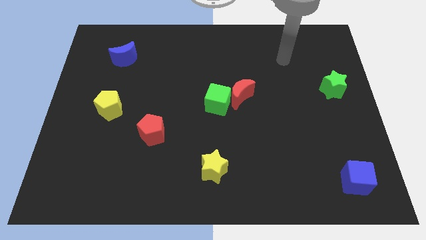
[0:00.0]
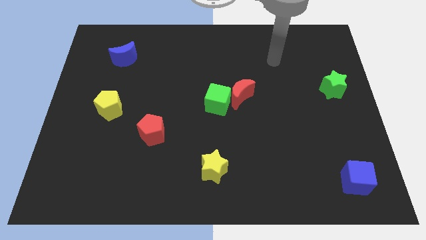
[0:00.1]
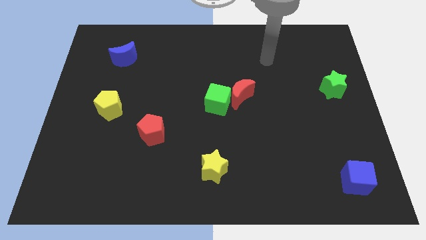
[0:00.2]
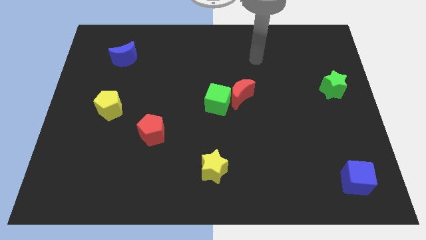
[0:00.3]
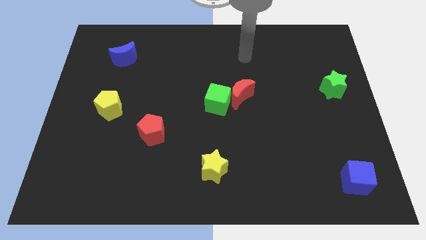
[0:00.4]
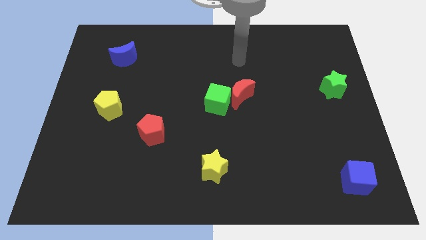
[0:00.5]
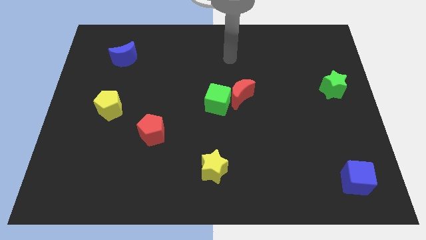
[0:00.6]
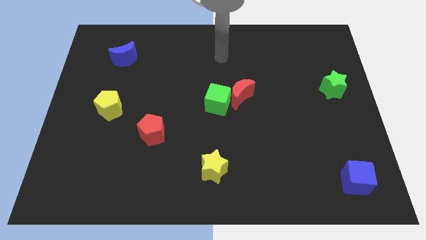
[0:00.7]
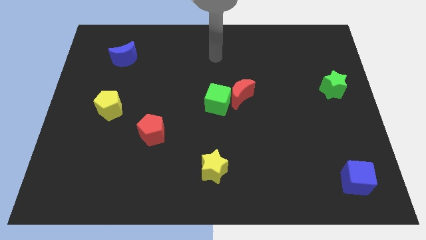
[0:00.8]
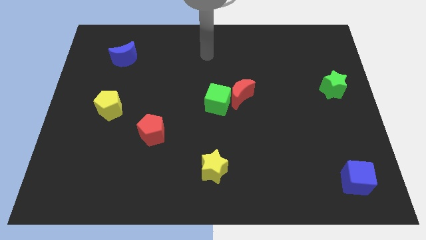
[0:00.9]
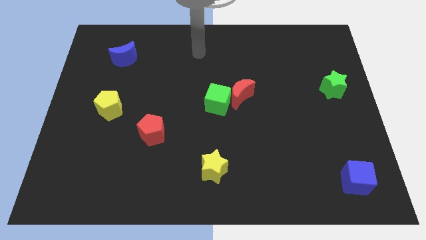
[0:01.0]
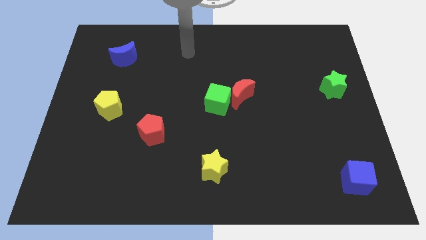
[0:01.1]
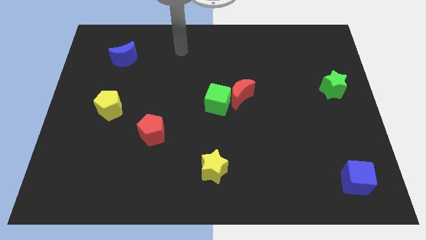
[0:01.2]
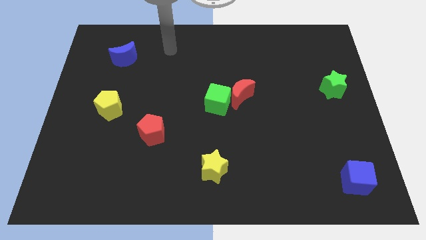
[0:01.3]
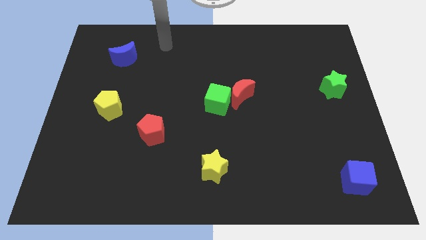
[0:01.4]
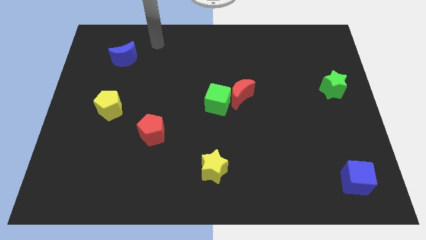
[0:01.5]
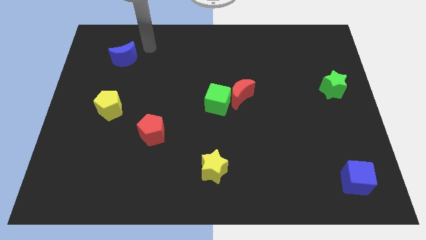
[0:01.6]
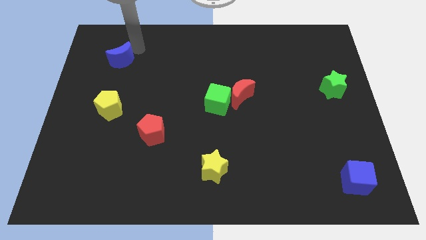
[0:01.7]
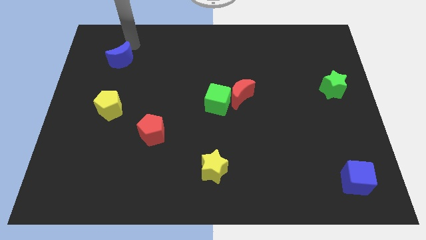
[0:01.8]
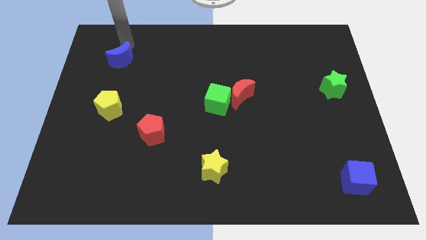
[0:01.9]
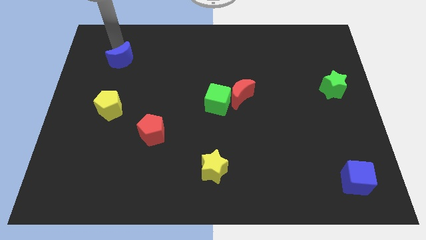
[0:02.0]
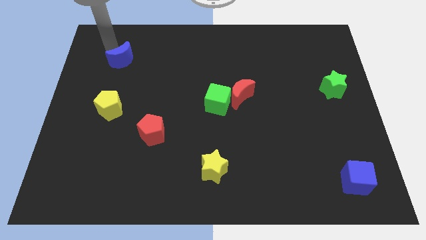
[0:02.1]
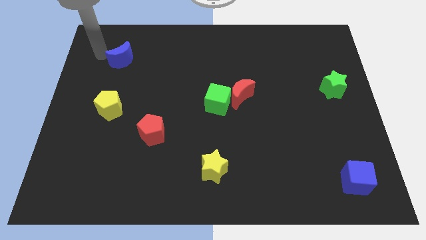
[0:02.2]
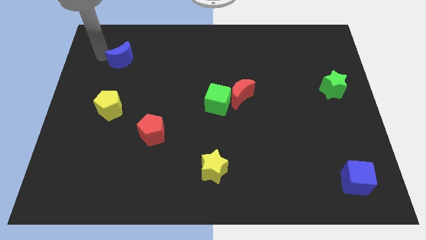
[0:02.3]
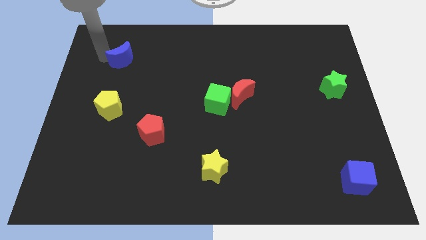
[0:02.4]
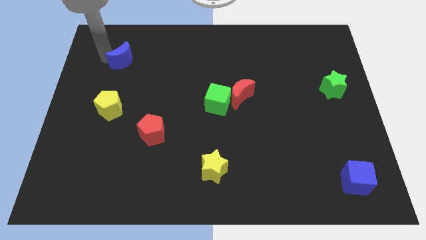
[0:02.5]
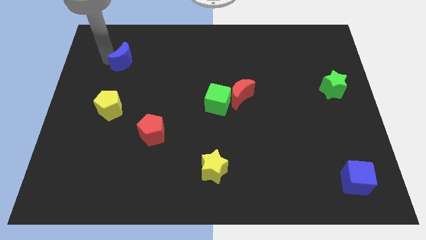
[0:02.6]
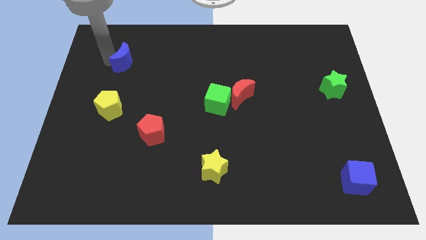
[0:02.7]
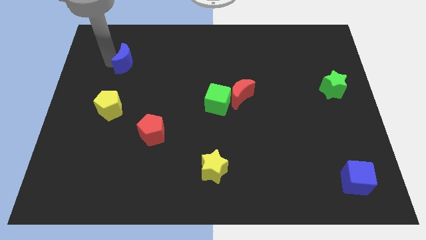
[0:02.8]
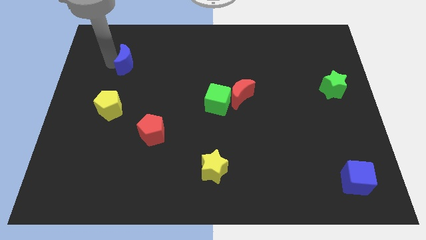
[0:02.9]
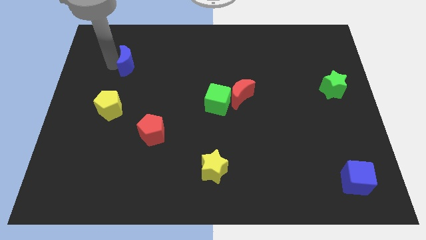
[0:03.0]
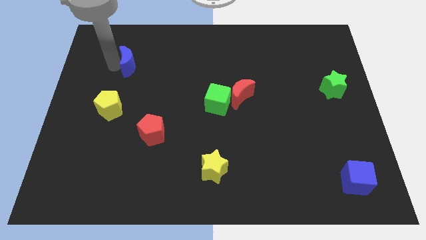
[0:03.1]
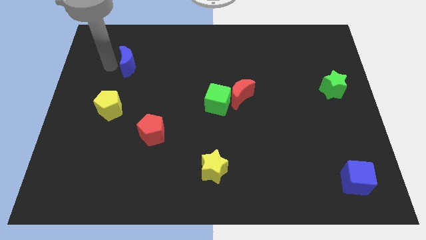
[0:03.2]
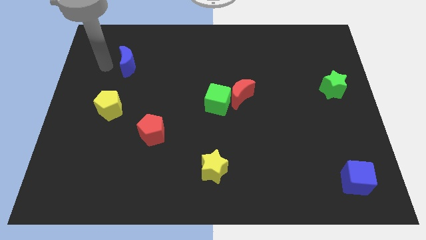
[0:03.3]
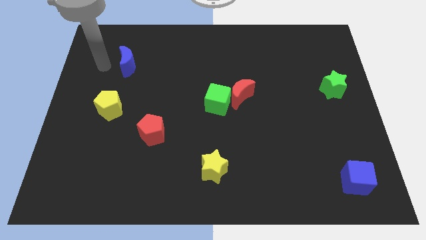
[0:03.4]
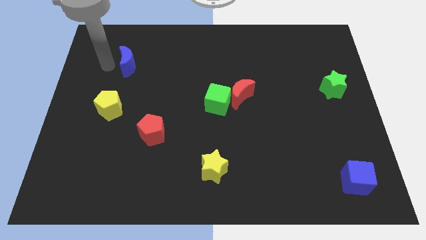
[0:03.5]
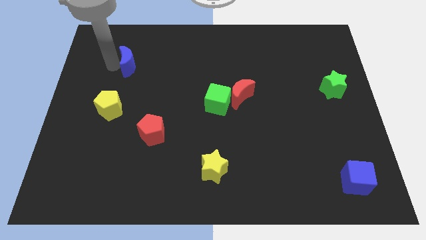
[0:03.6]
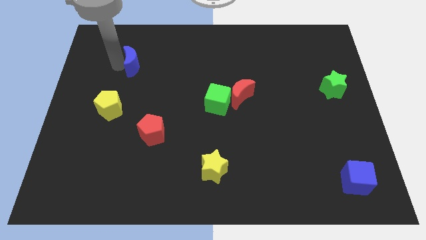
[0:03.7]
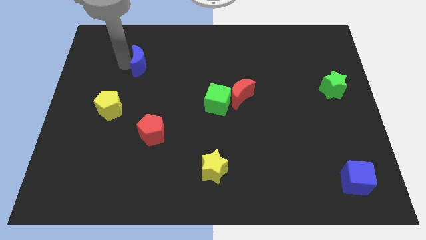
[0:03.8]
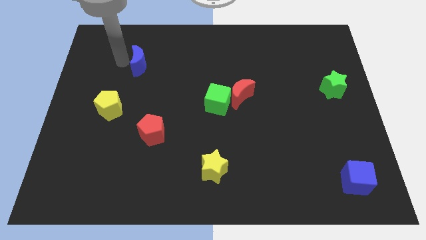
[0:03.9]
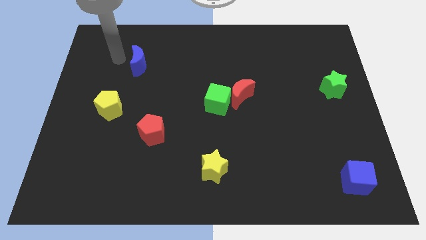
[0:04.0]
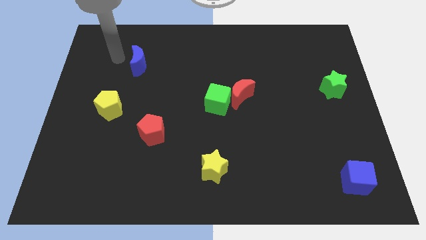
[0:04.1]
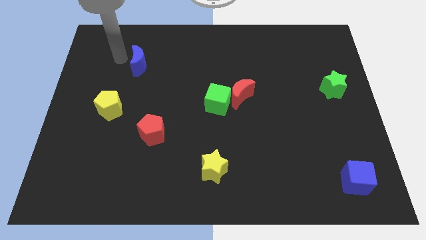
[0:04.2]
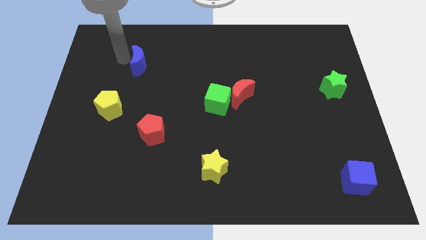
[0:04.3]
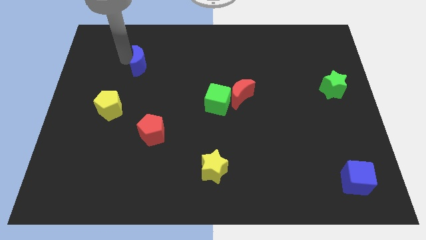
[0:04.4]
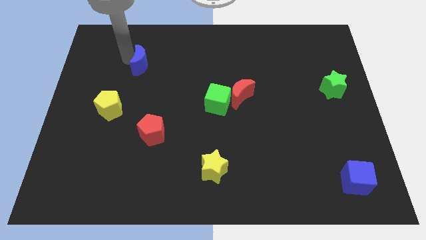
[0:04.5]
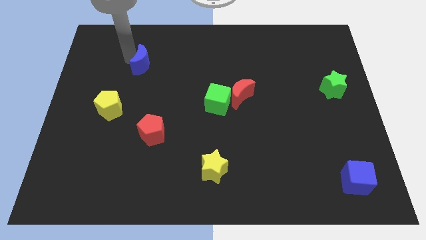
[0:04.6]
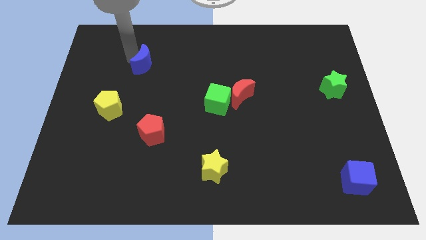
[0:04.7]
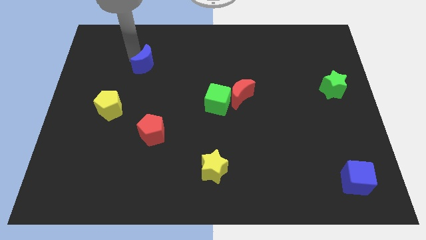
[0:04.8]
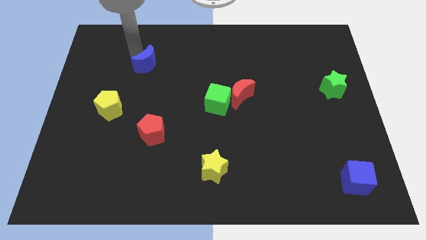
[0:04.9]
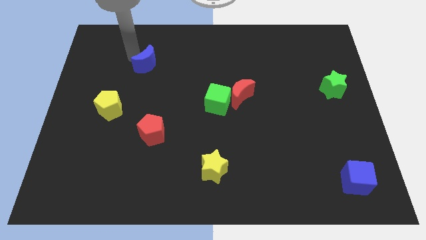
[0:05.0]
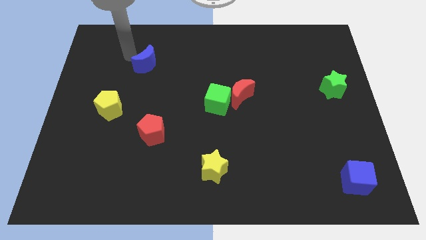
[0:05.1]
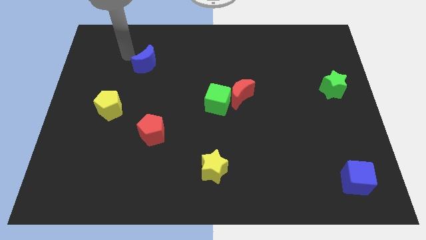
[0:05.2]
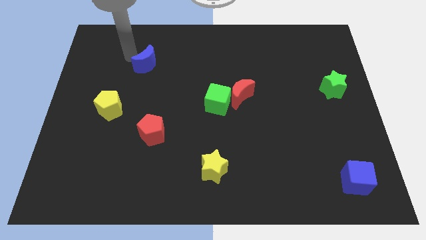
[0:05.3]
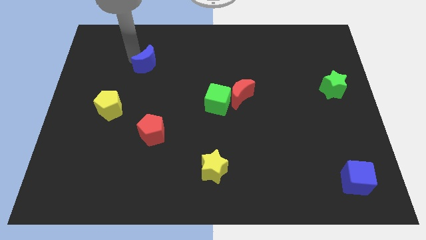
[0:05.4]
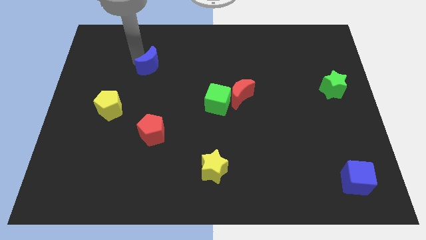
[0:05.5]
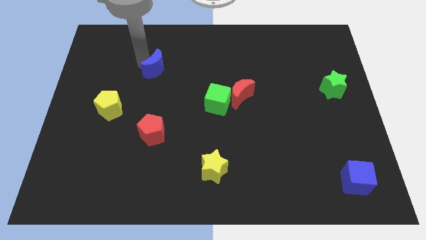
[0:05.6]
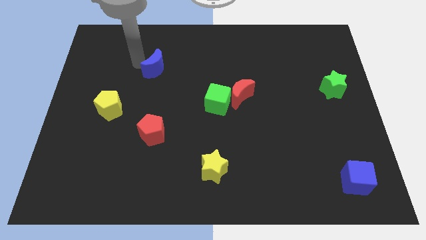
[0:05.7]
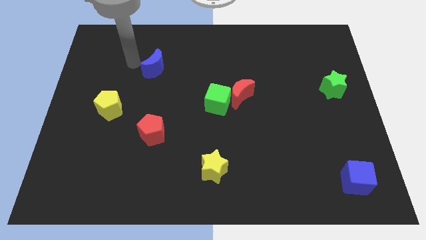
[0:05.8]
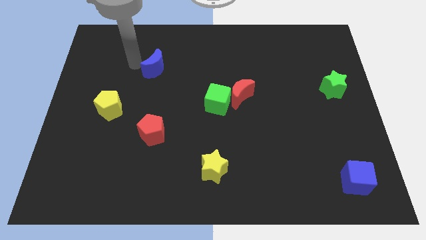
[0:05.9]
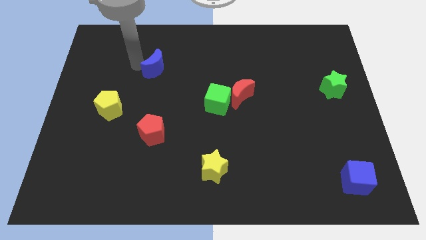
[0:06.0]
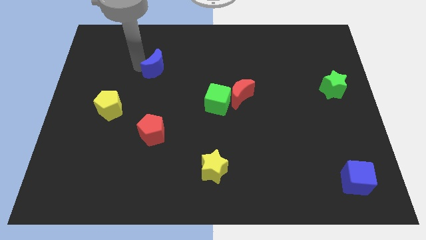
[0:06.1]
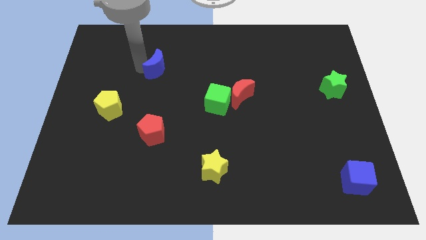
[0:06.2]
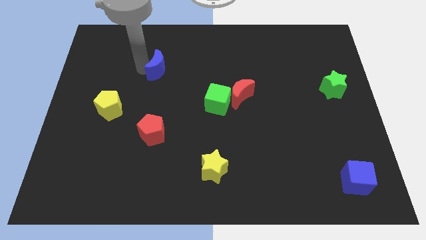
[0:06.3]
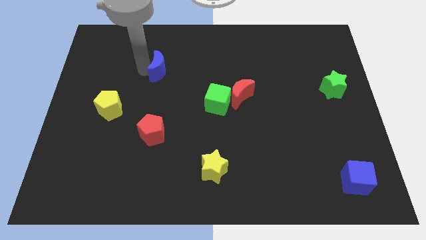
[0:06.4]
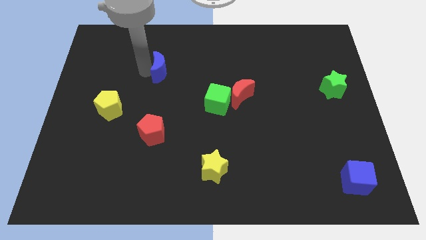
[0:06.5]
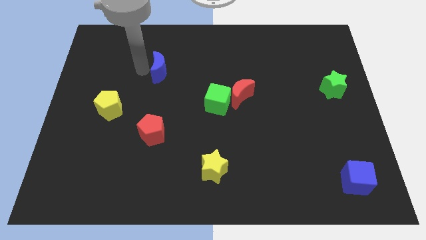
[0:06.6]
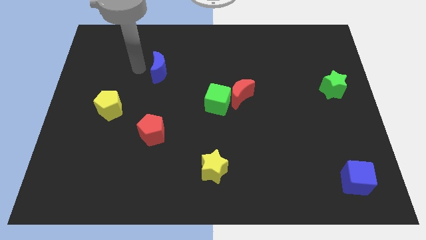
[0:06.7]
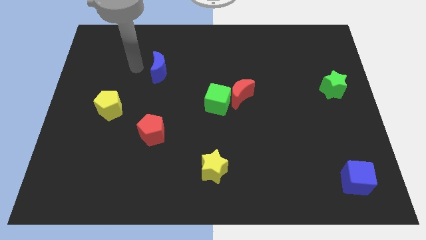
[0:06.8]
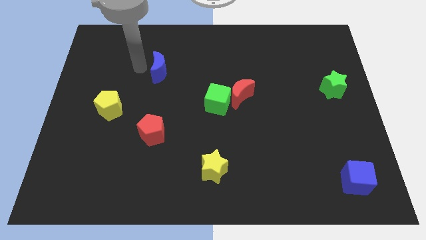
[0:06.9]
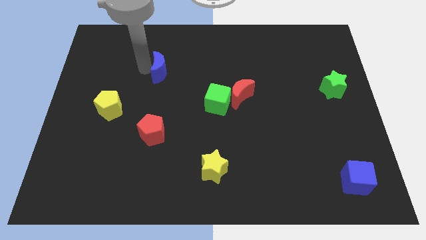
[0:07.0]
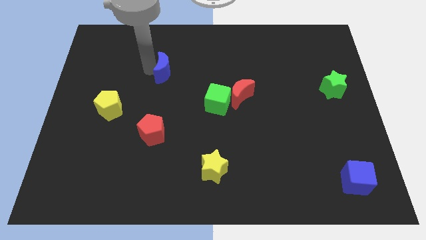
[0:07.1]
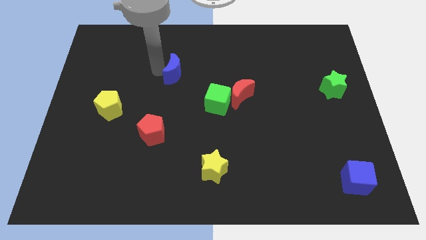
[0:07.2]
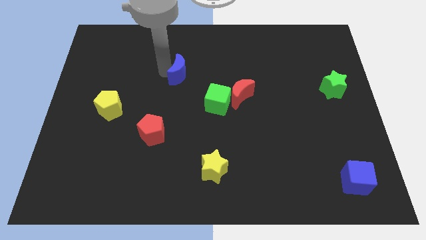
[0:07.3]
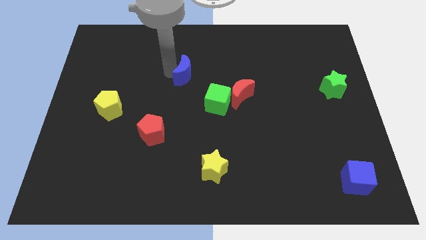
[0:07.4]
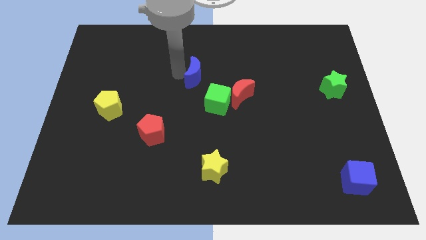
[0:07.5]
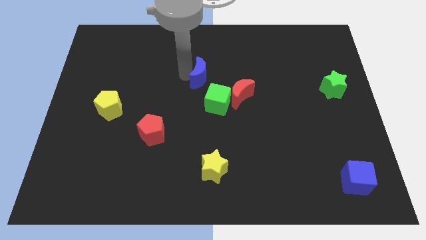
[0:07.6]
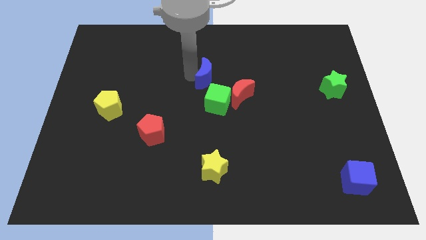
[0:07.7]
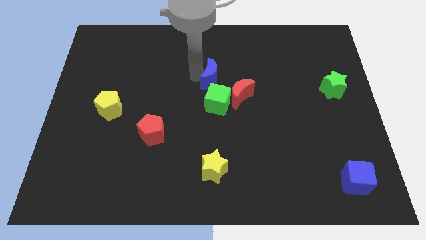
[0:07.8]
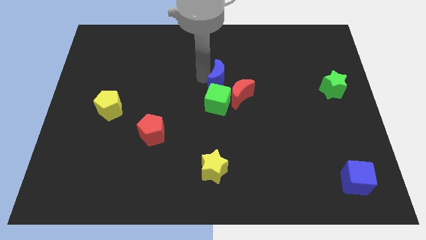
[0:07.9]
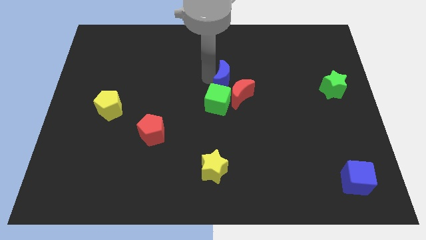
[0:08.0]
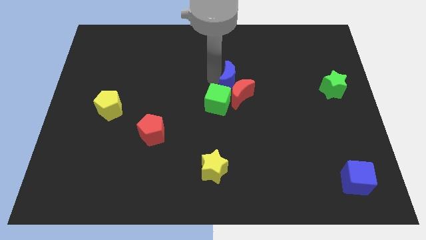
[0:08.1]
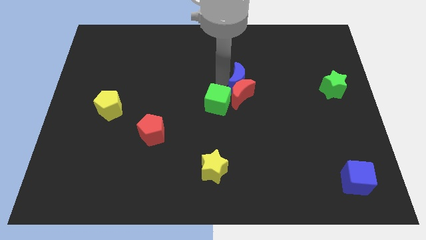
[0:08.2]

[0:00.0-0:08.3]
move the blue moon diagonally up and to the right of the red moon
